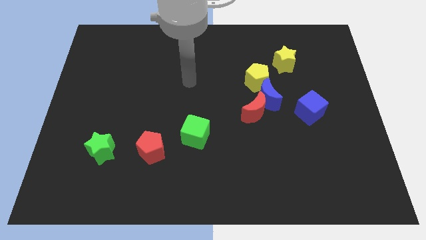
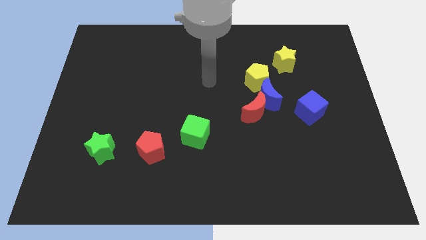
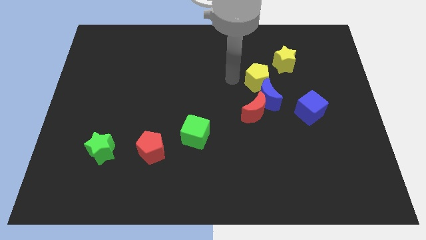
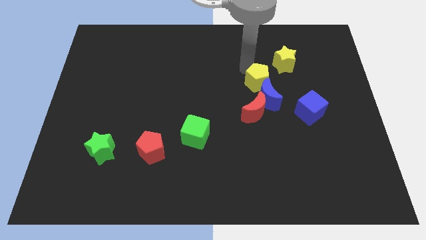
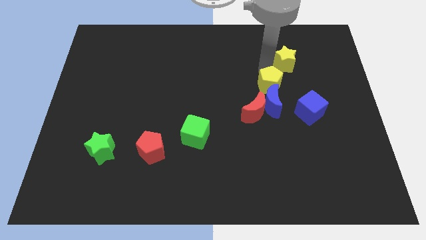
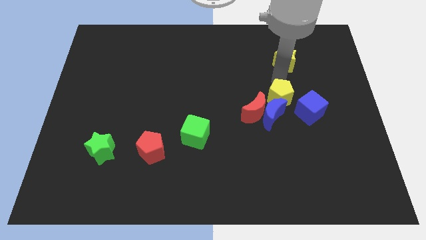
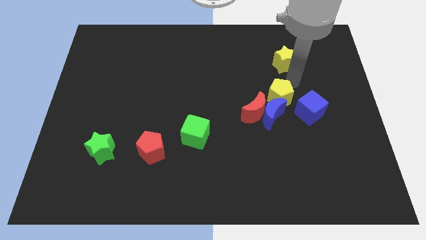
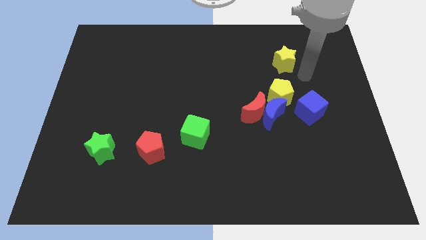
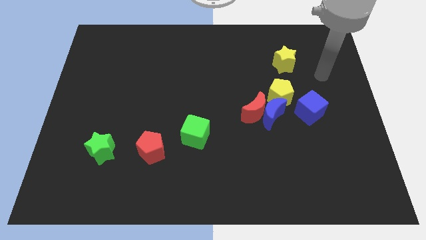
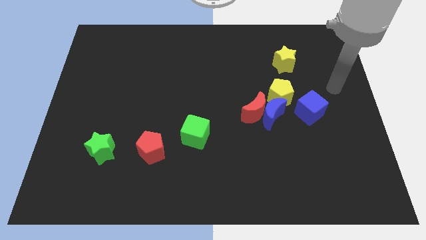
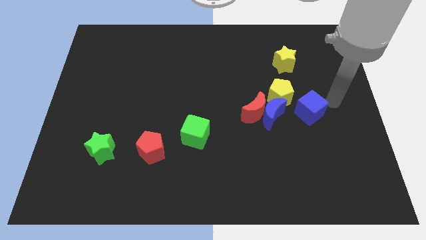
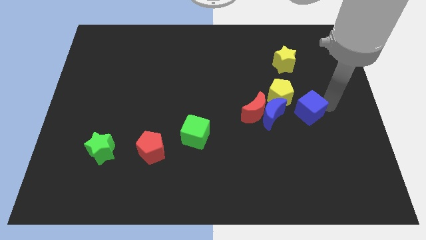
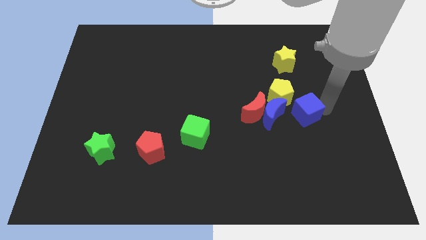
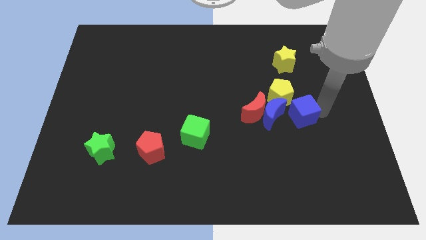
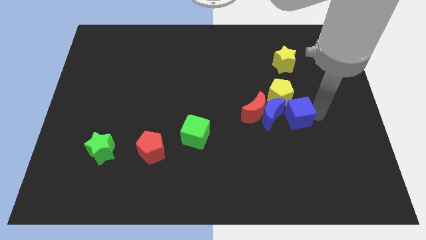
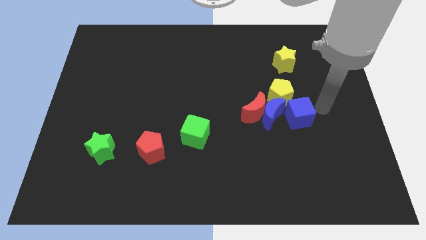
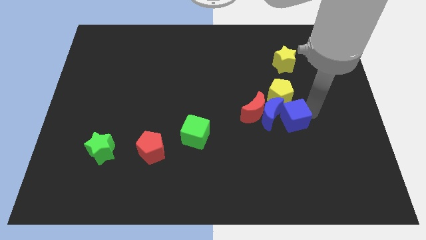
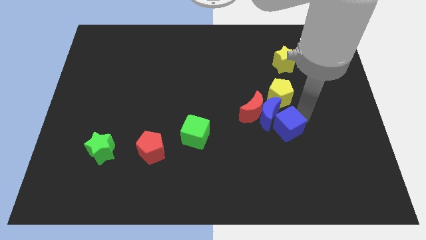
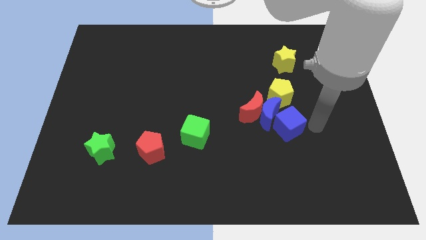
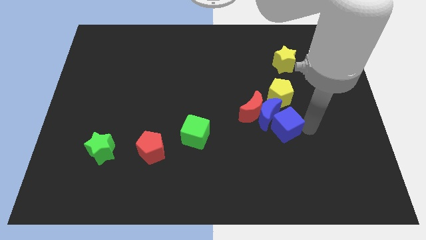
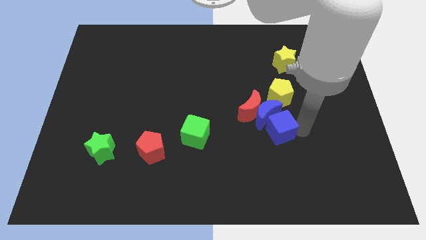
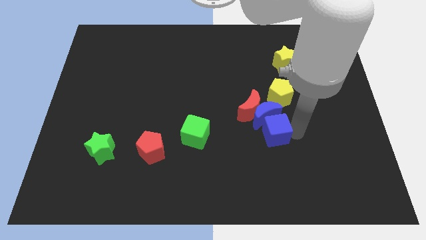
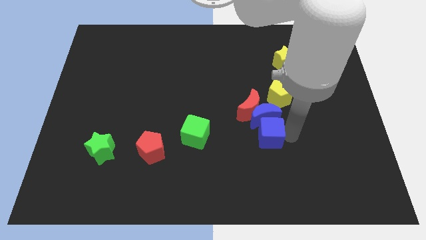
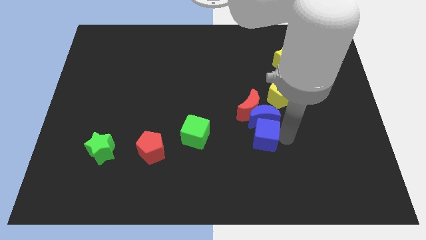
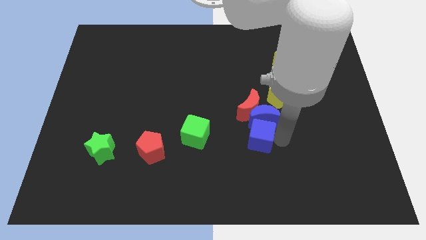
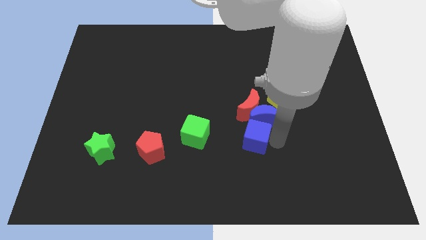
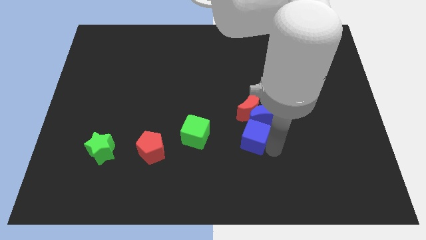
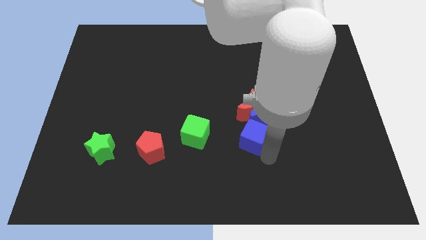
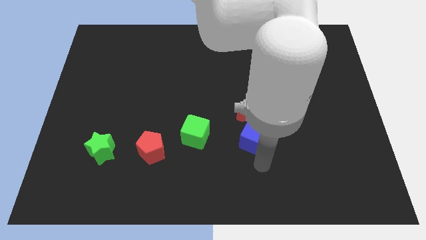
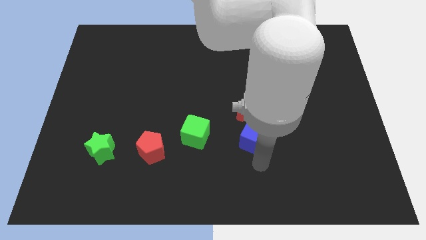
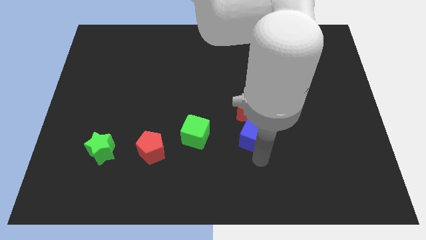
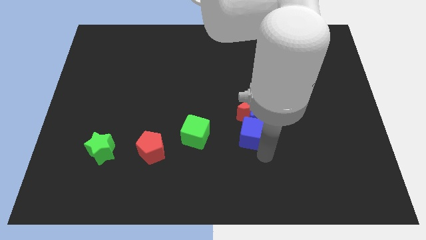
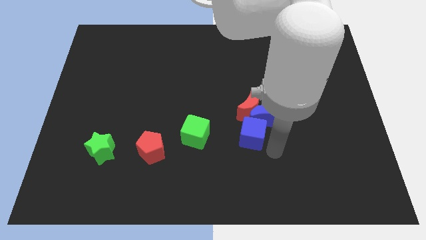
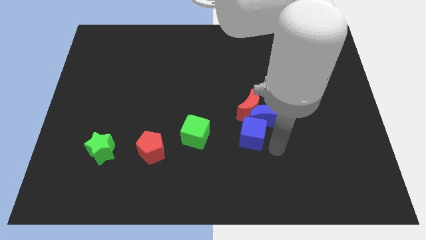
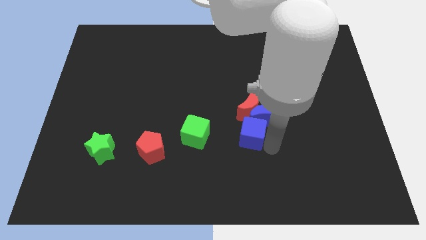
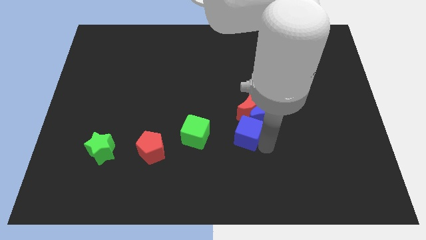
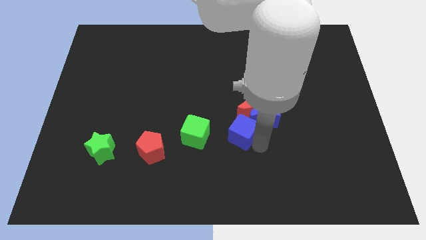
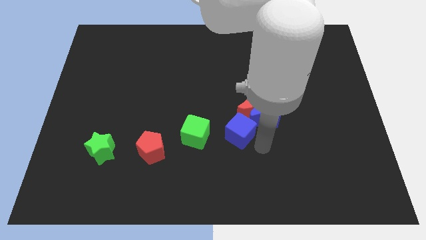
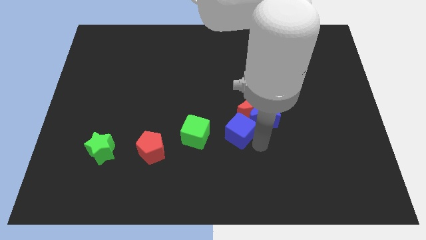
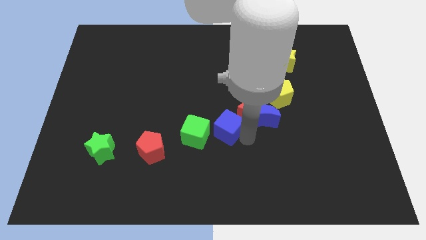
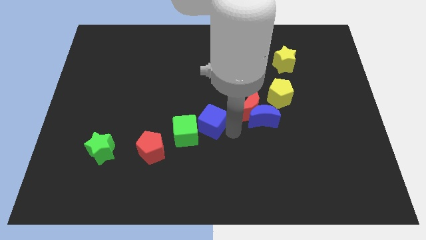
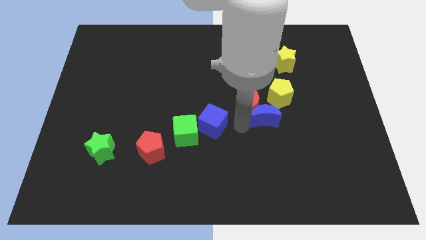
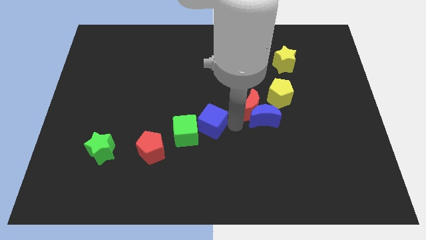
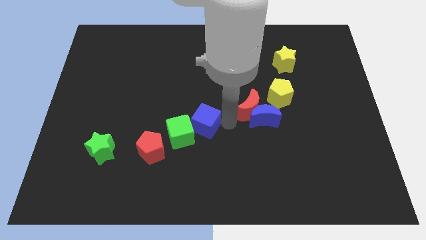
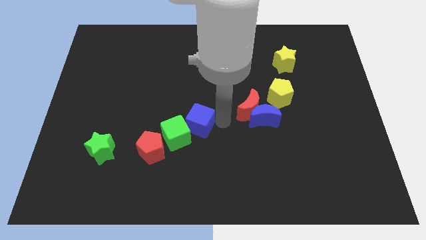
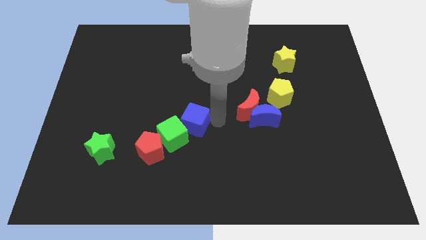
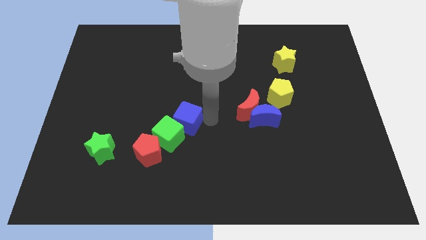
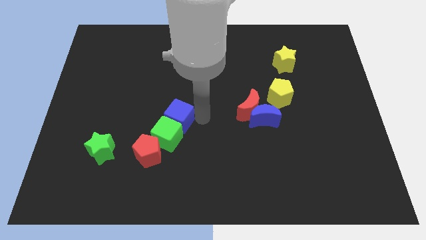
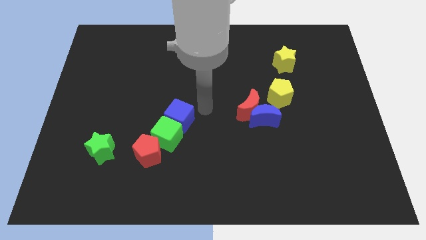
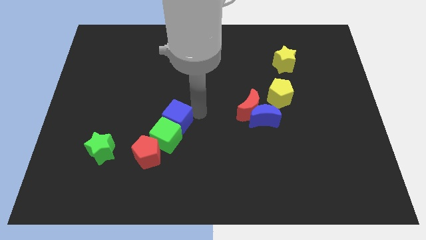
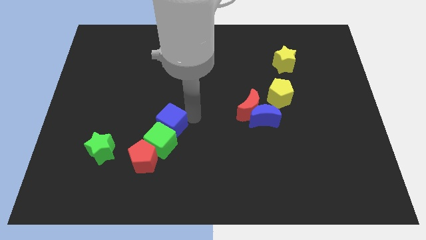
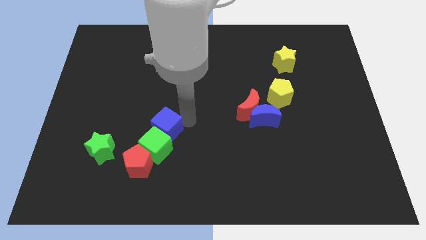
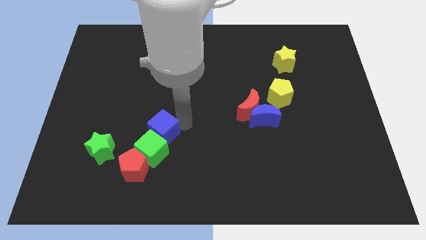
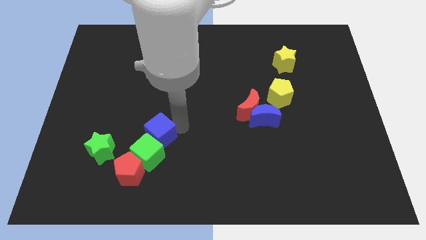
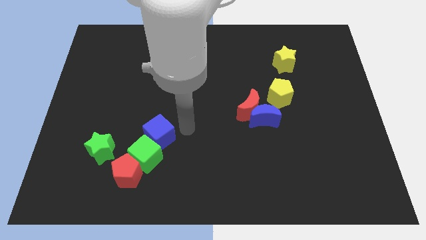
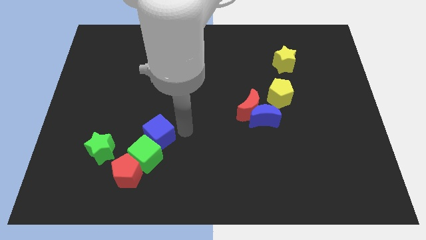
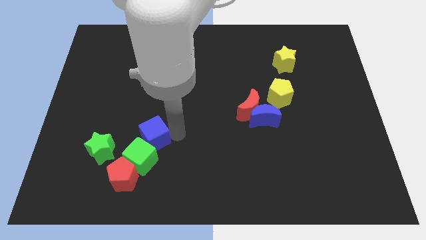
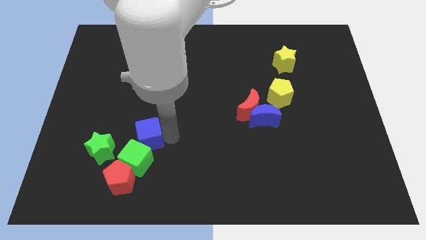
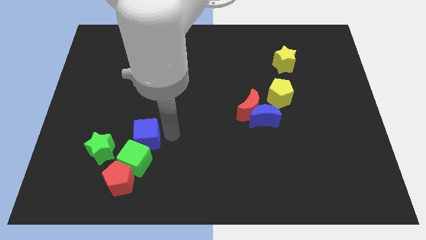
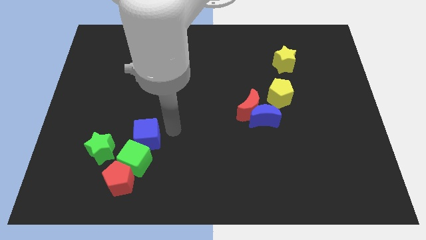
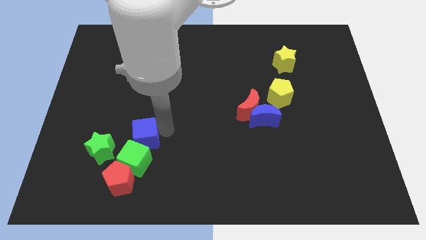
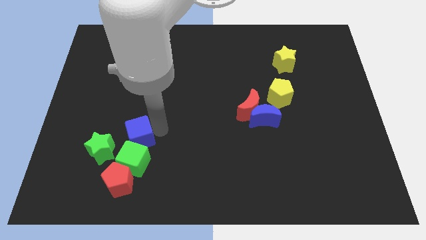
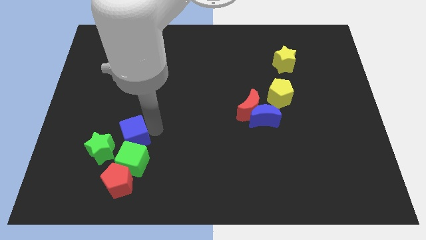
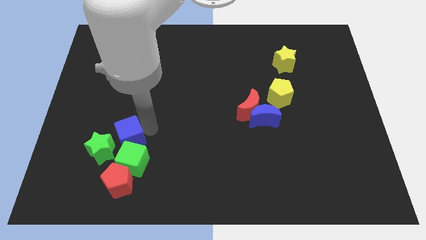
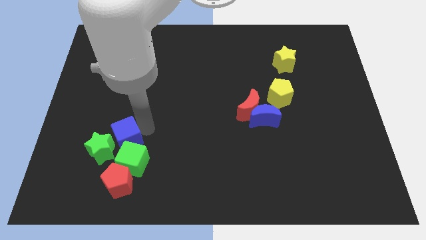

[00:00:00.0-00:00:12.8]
push the blue cube close to the green star
